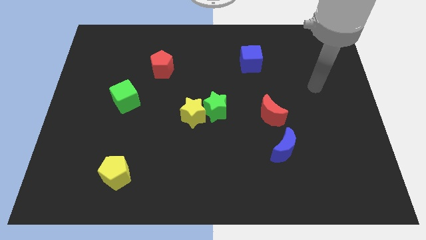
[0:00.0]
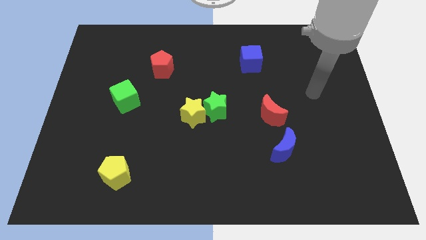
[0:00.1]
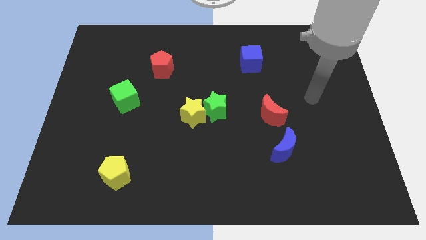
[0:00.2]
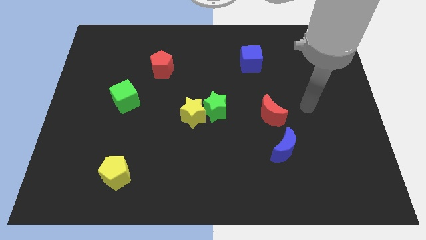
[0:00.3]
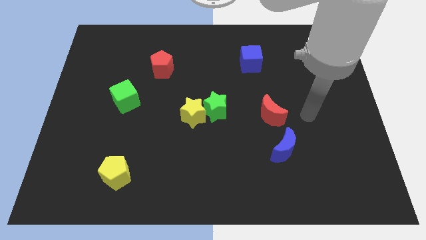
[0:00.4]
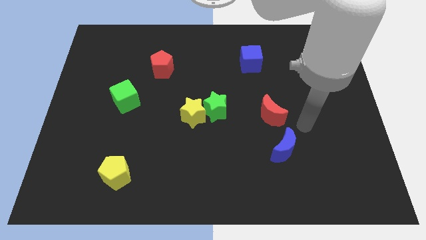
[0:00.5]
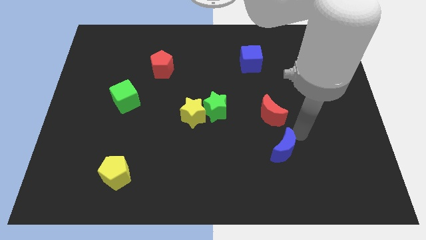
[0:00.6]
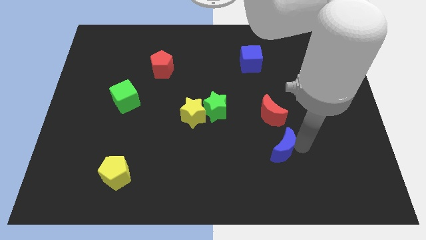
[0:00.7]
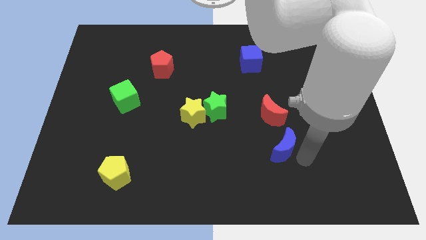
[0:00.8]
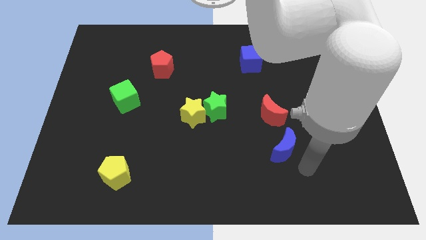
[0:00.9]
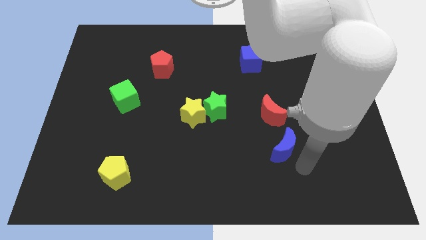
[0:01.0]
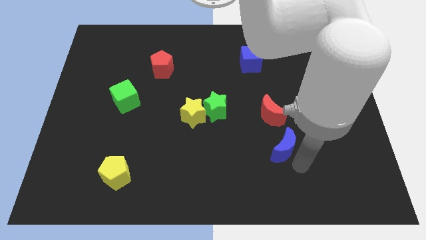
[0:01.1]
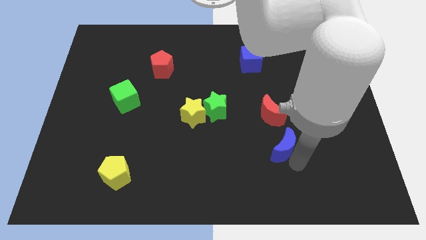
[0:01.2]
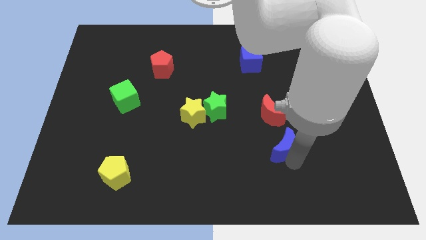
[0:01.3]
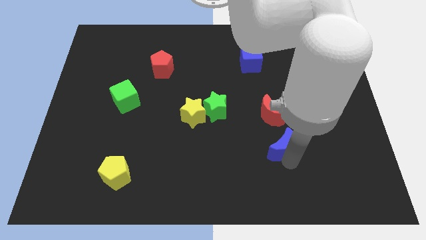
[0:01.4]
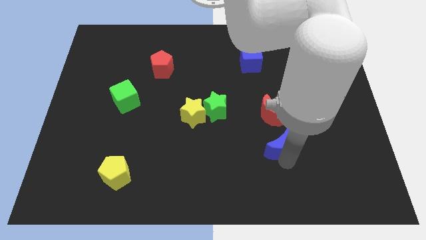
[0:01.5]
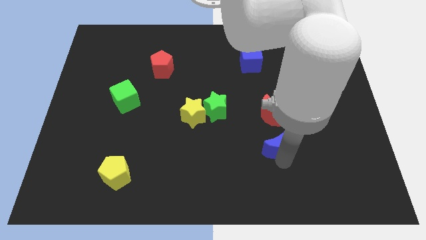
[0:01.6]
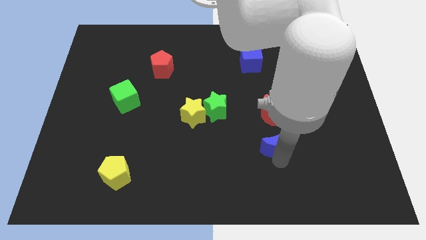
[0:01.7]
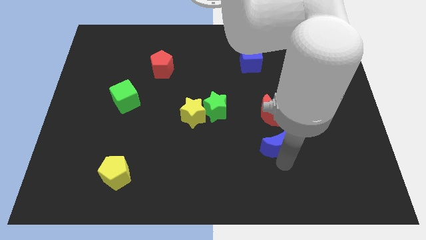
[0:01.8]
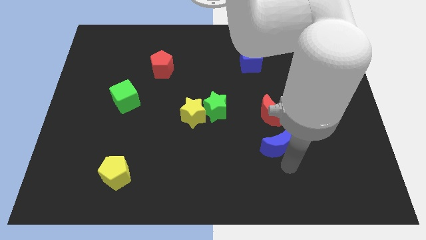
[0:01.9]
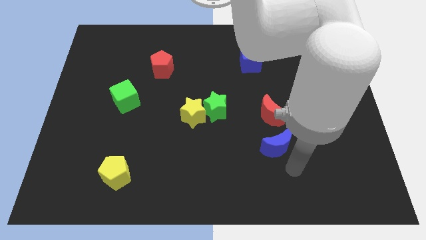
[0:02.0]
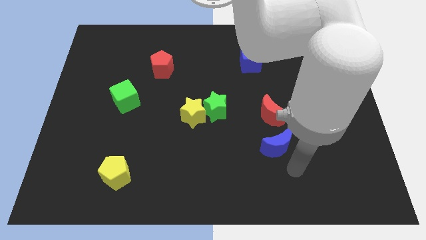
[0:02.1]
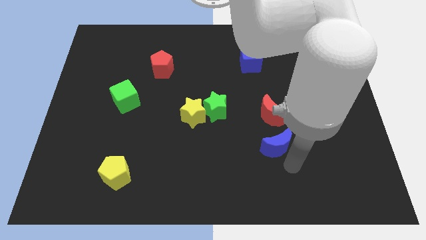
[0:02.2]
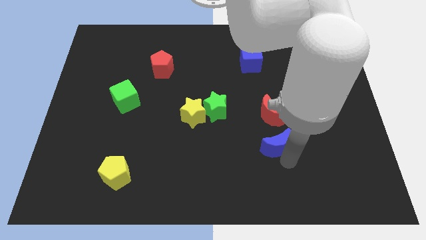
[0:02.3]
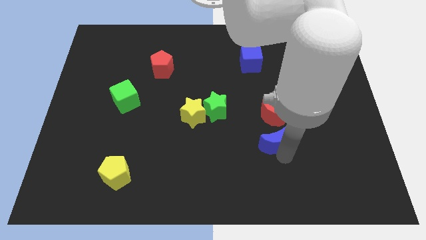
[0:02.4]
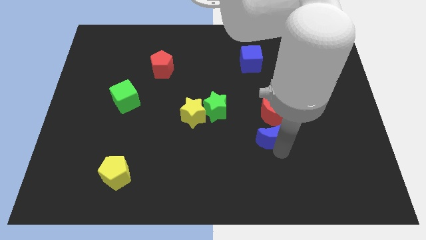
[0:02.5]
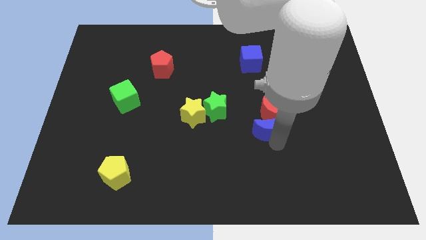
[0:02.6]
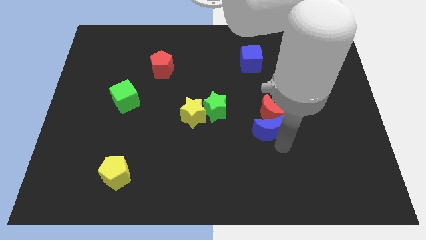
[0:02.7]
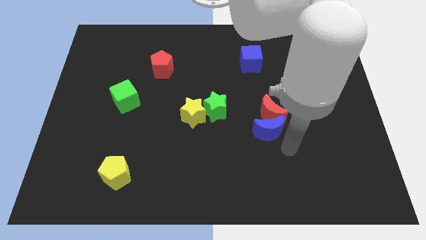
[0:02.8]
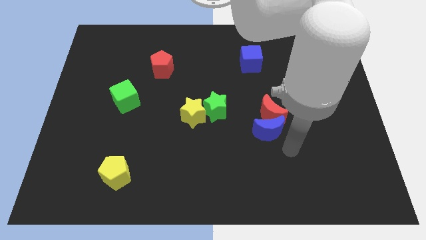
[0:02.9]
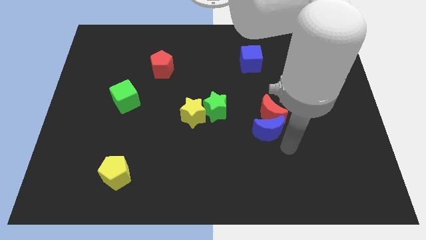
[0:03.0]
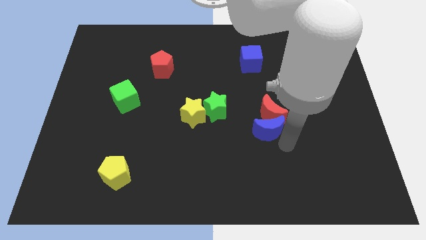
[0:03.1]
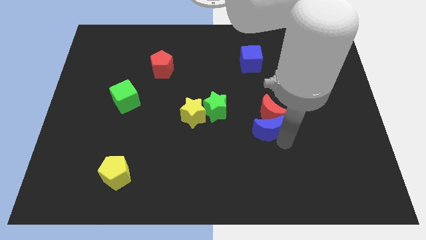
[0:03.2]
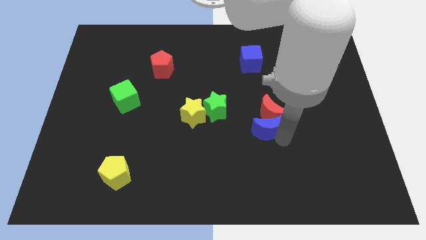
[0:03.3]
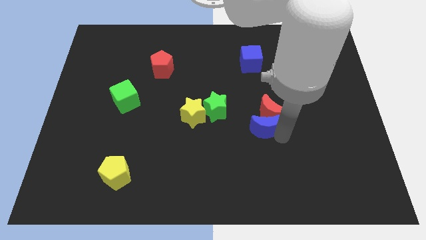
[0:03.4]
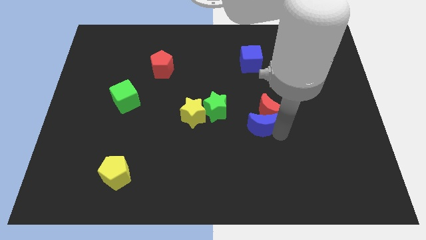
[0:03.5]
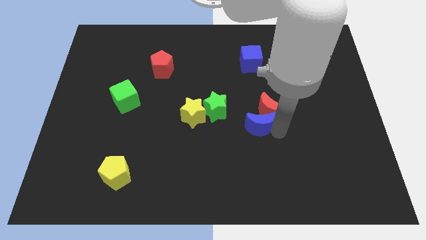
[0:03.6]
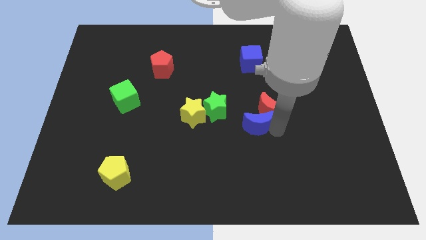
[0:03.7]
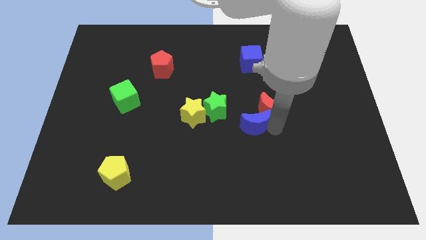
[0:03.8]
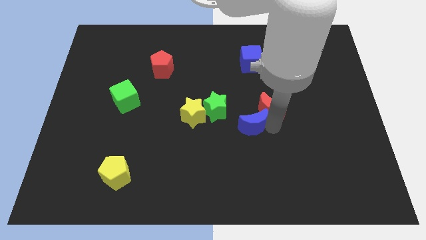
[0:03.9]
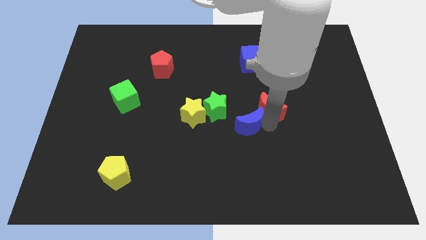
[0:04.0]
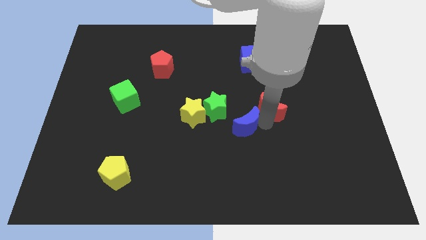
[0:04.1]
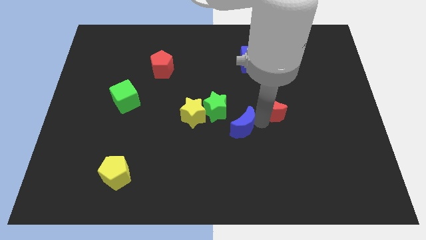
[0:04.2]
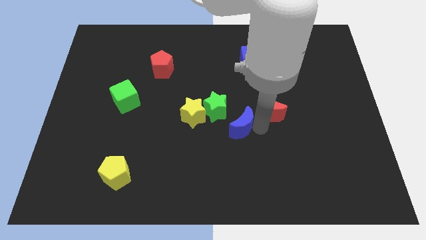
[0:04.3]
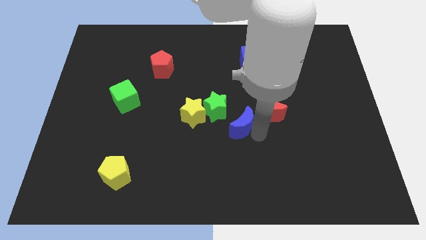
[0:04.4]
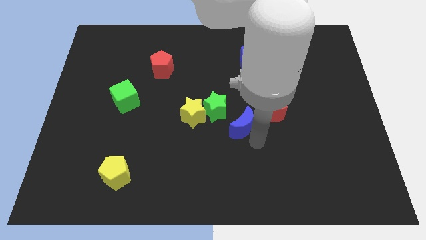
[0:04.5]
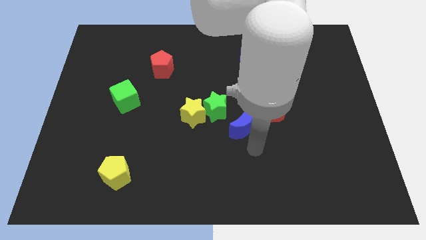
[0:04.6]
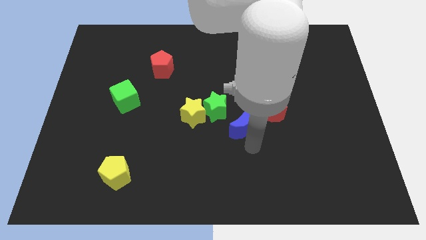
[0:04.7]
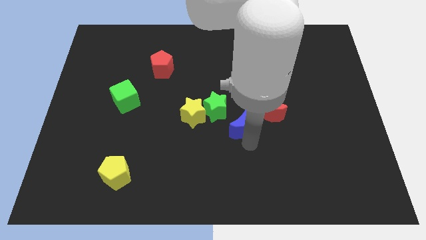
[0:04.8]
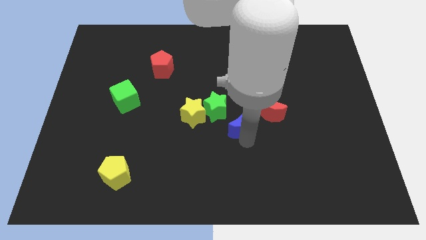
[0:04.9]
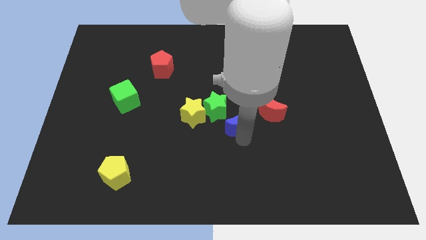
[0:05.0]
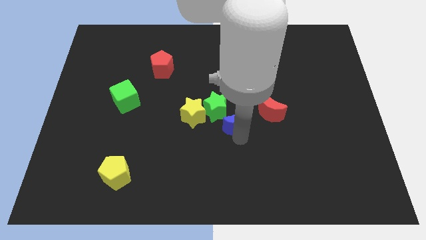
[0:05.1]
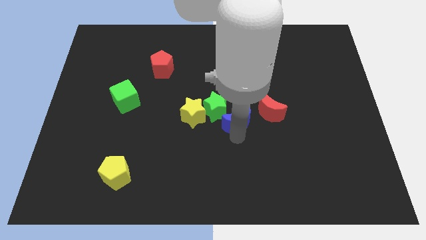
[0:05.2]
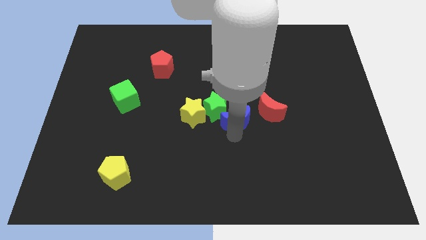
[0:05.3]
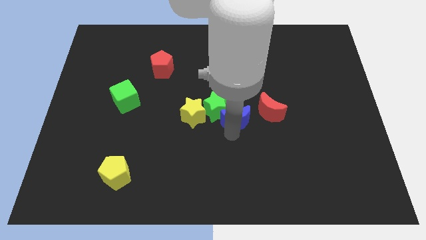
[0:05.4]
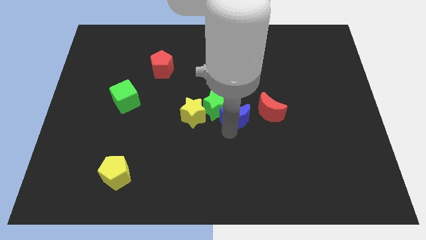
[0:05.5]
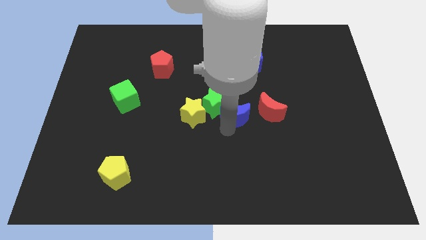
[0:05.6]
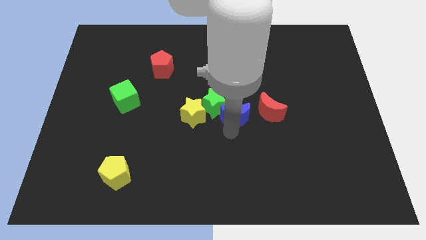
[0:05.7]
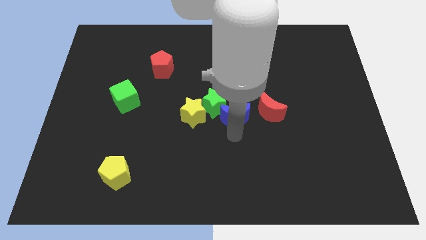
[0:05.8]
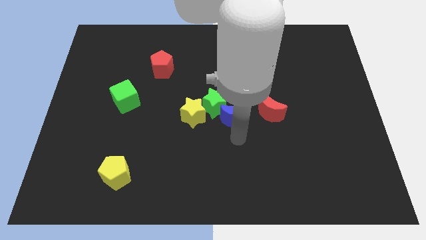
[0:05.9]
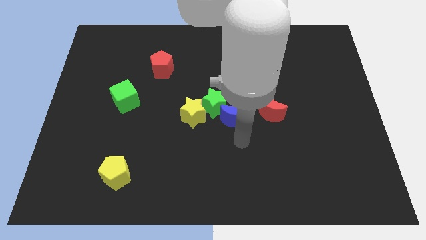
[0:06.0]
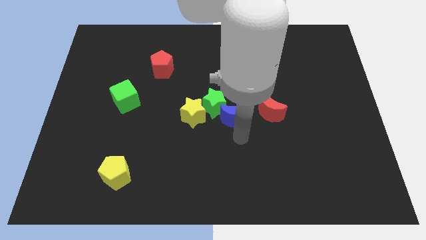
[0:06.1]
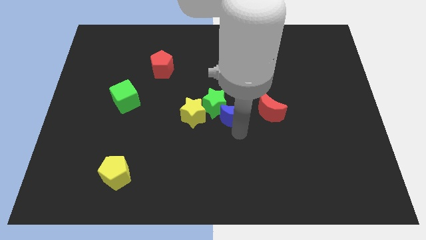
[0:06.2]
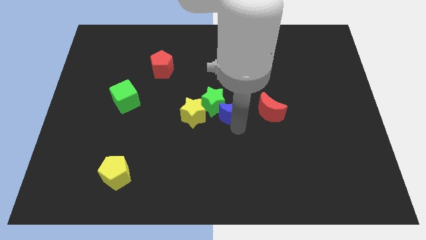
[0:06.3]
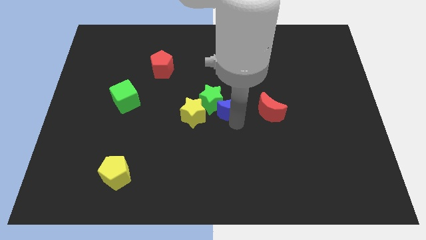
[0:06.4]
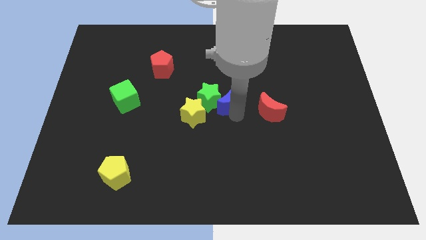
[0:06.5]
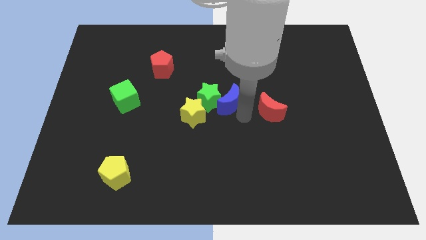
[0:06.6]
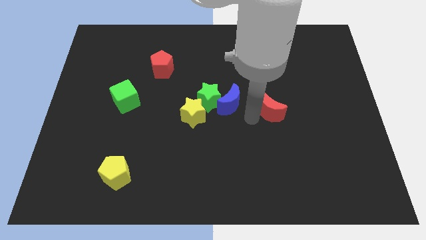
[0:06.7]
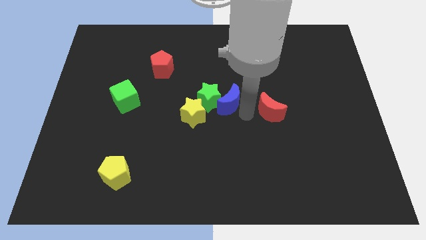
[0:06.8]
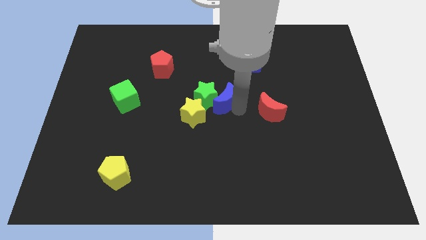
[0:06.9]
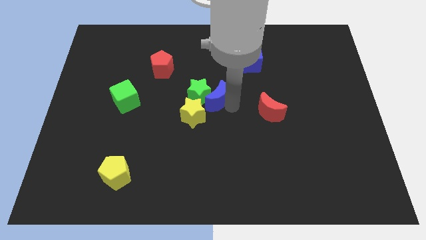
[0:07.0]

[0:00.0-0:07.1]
push the blue moon upwards and then left

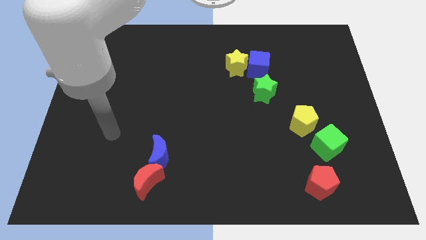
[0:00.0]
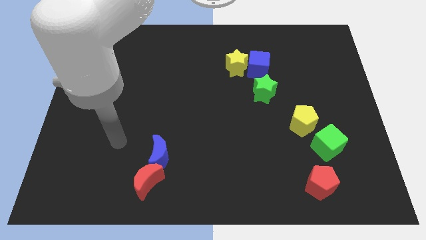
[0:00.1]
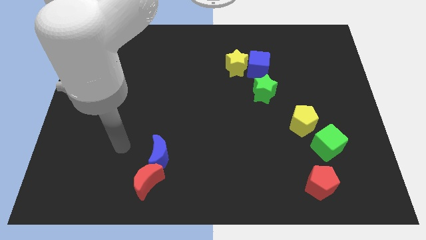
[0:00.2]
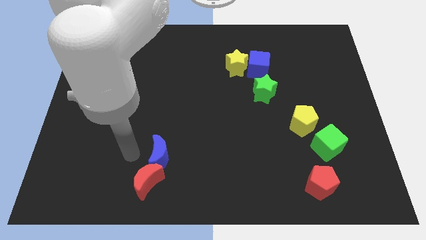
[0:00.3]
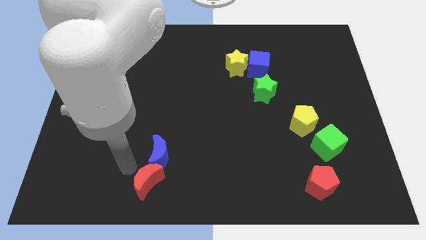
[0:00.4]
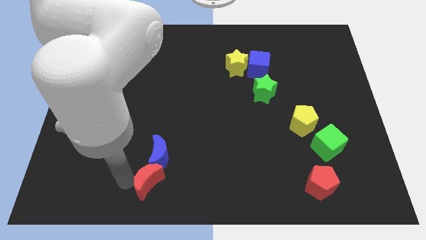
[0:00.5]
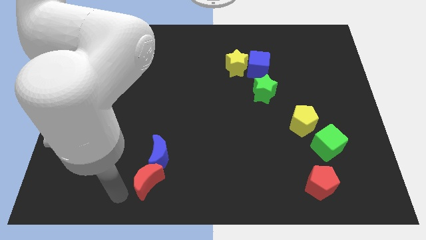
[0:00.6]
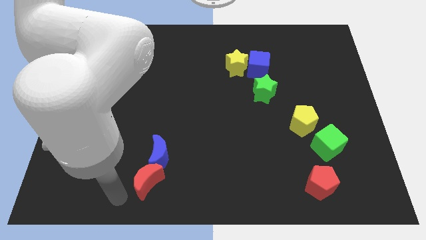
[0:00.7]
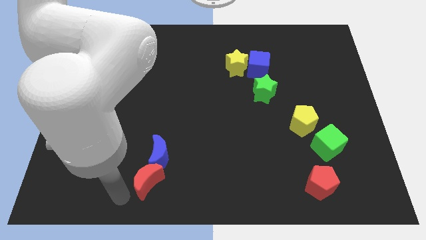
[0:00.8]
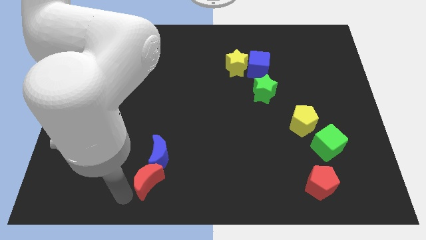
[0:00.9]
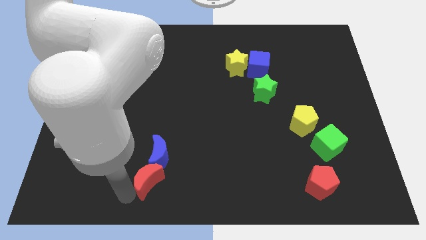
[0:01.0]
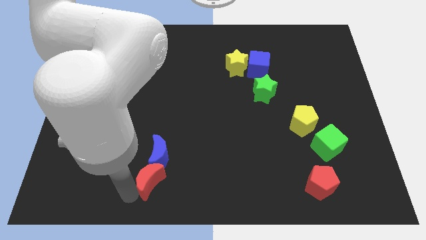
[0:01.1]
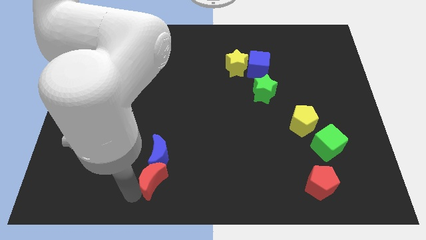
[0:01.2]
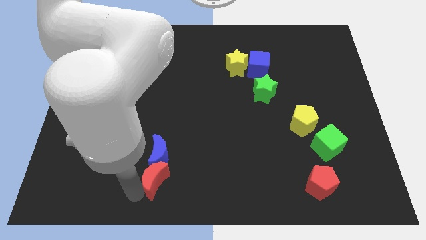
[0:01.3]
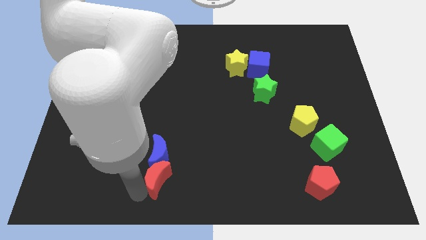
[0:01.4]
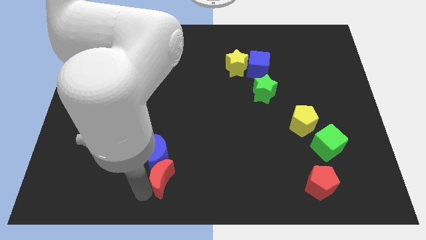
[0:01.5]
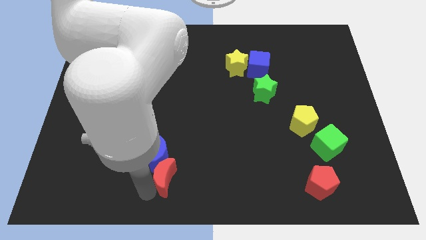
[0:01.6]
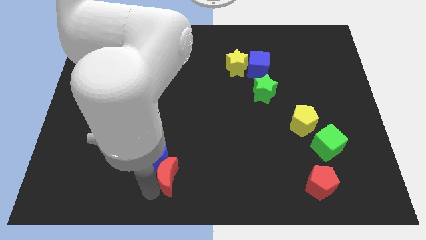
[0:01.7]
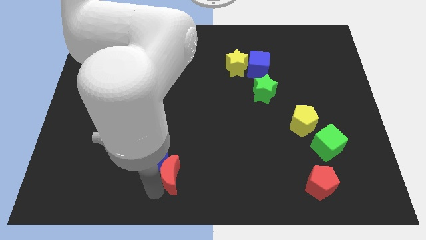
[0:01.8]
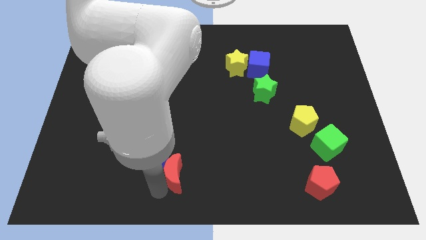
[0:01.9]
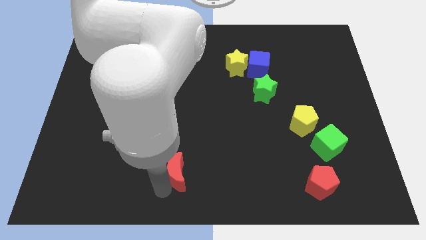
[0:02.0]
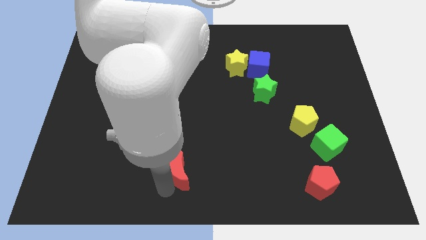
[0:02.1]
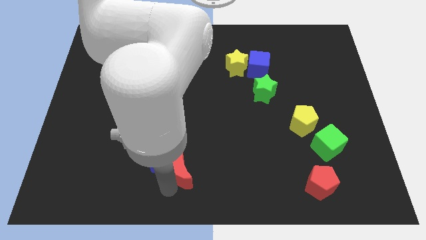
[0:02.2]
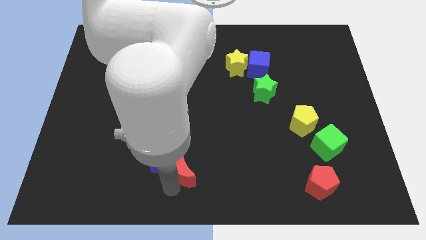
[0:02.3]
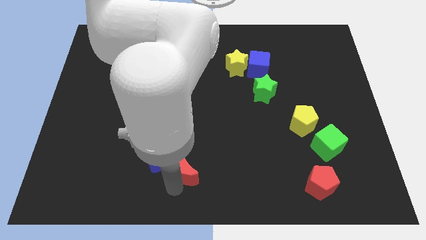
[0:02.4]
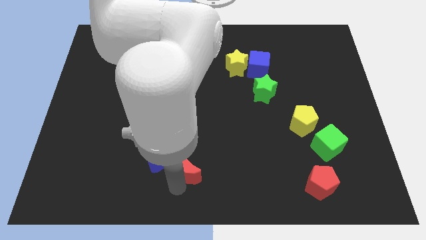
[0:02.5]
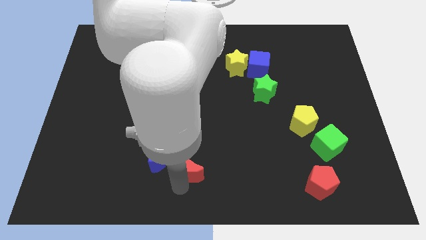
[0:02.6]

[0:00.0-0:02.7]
slide the red moon a little bit diagonally upwards and to the right
